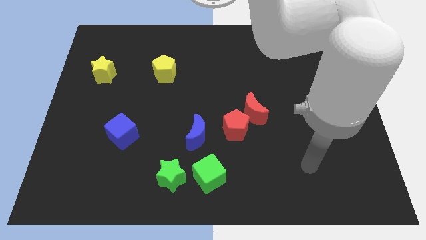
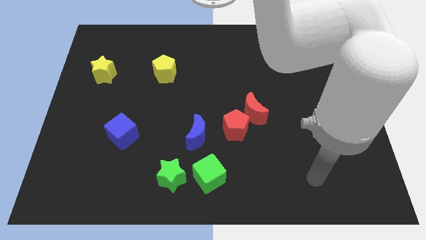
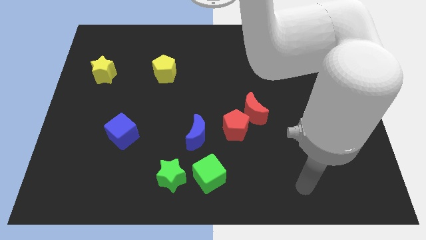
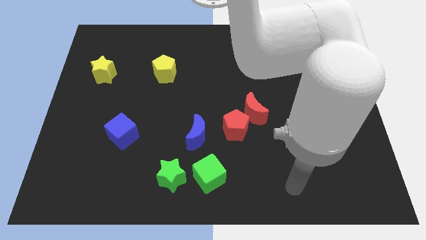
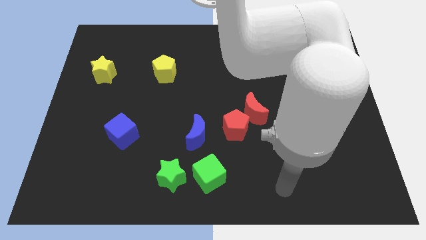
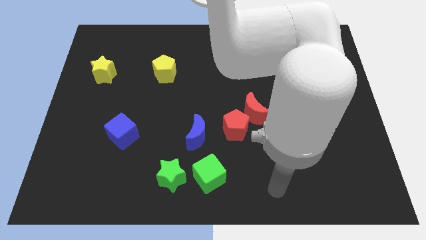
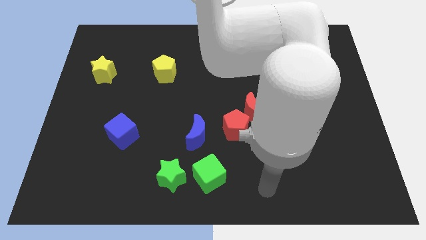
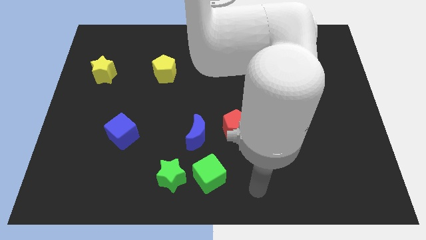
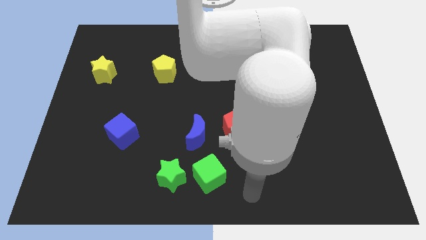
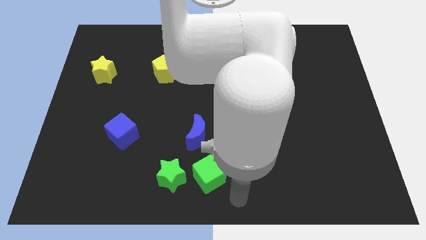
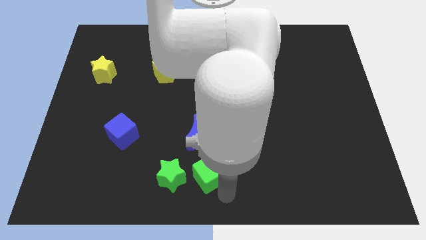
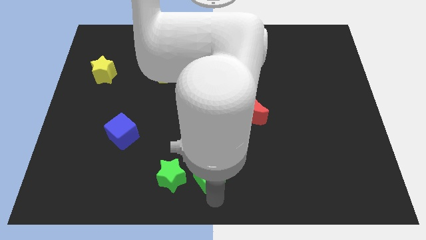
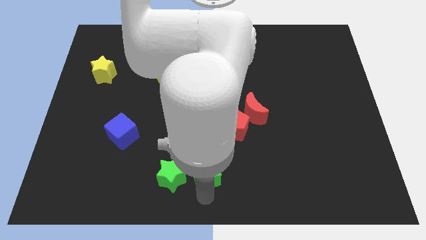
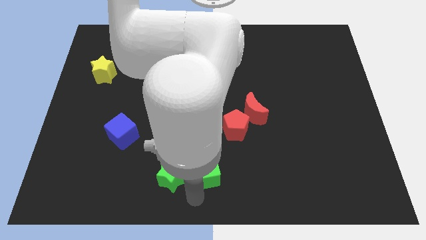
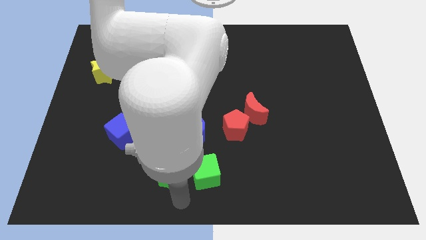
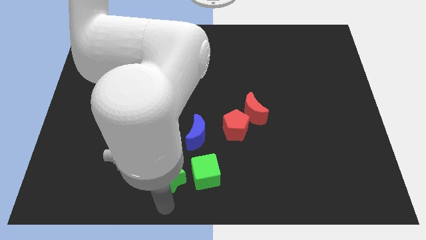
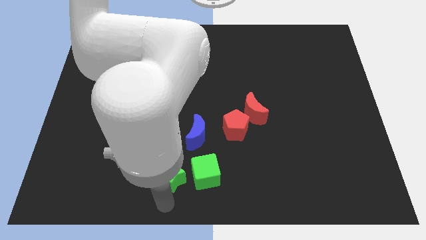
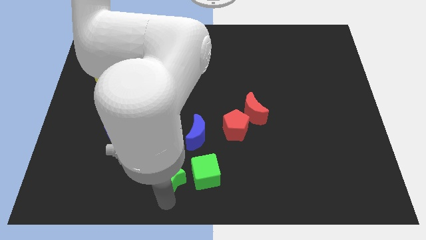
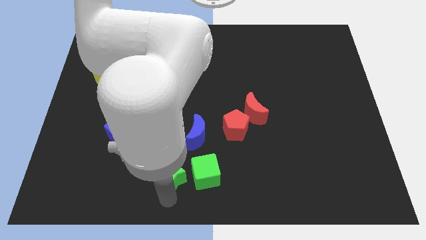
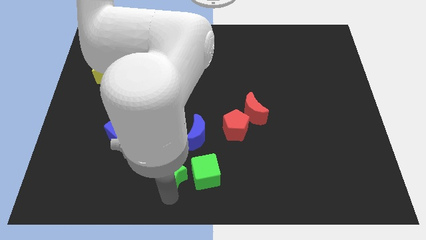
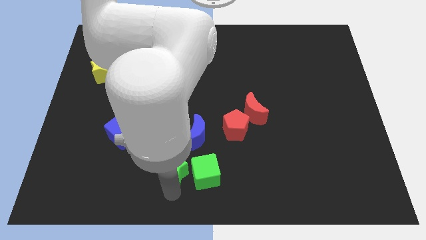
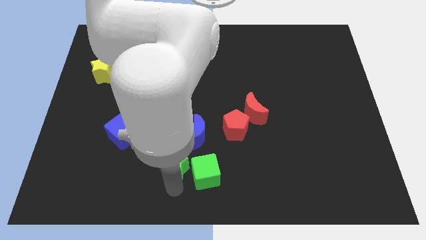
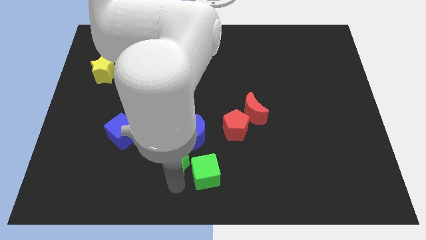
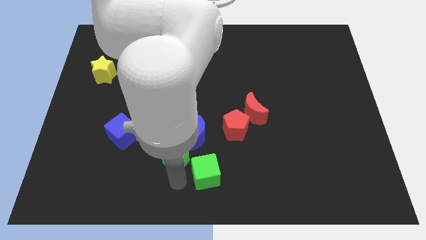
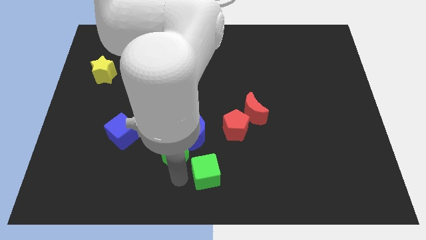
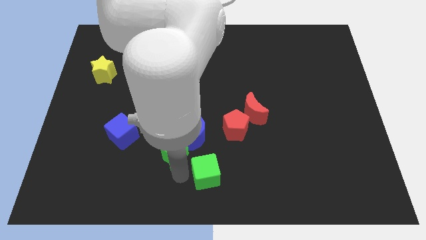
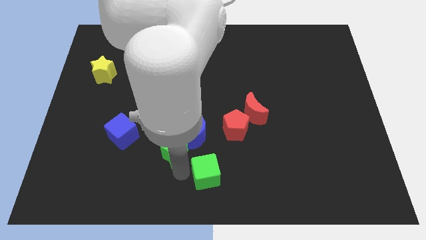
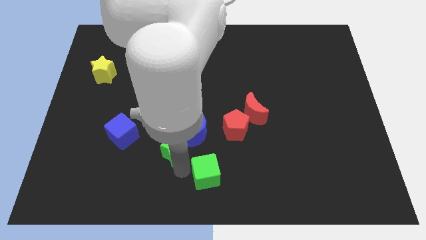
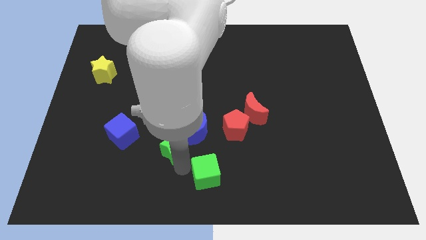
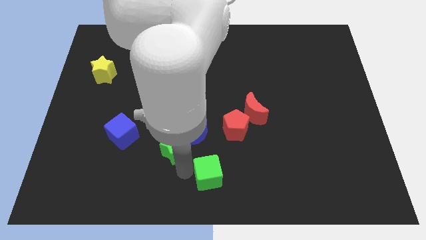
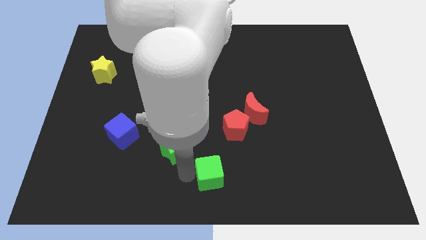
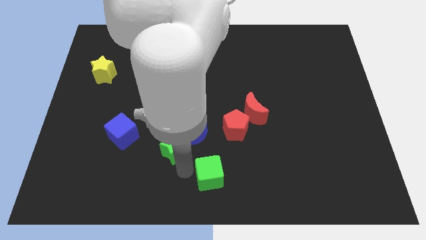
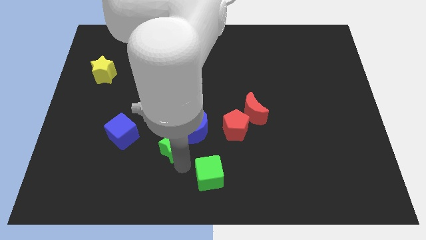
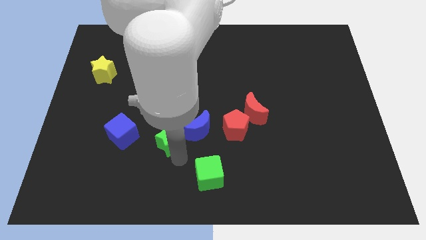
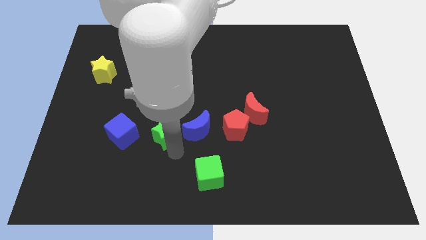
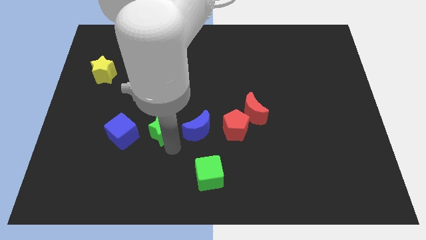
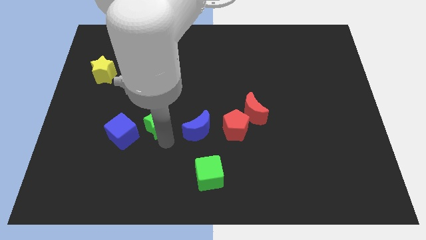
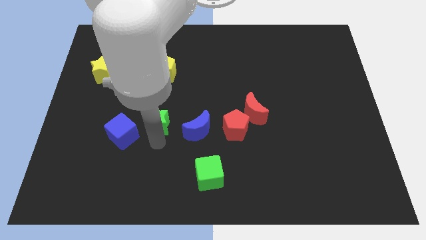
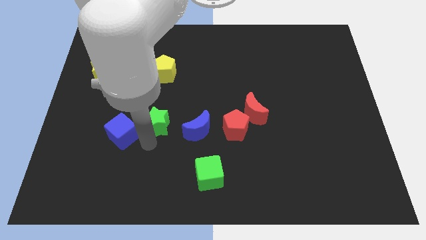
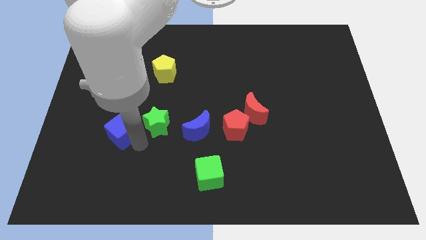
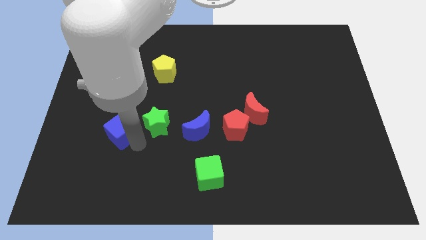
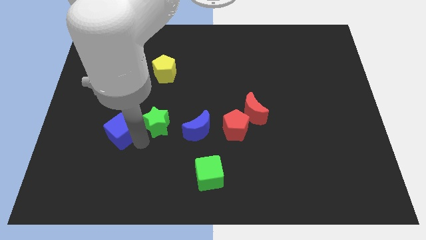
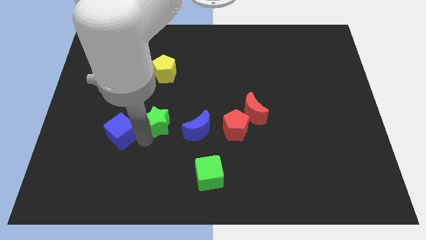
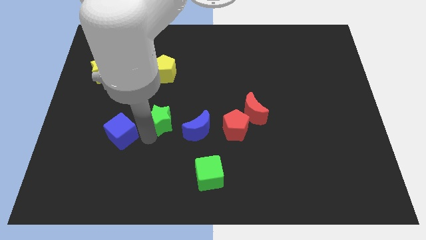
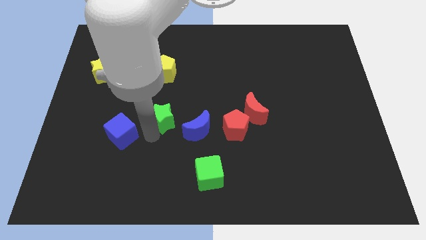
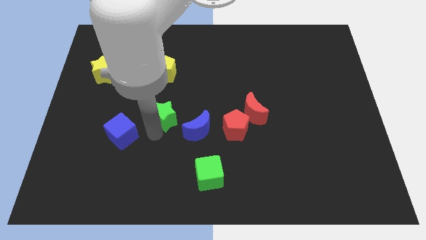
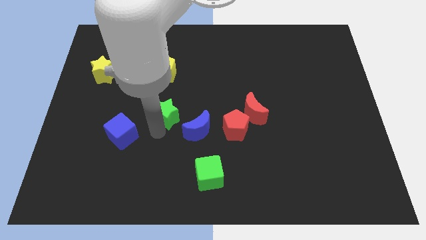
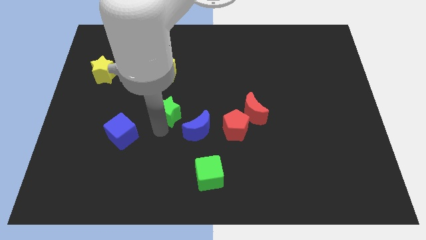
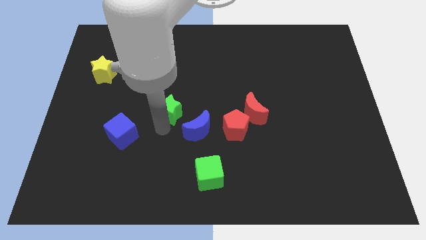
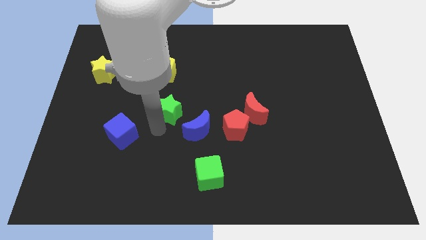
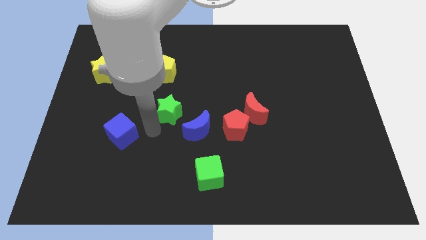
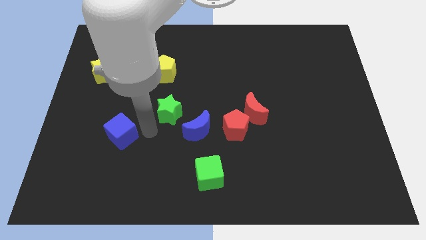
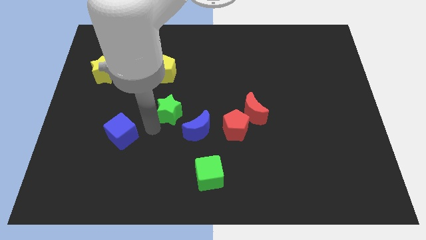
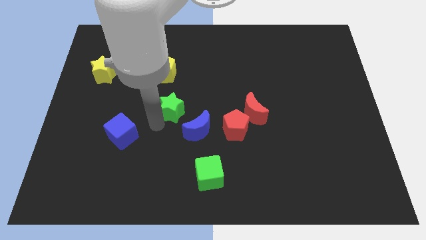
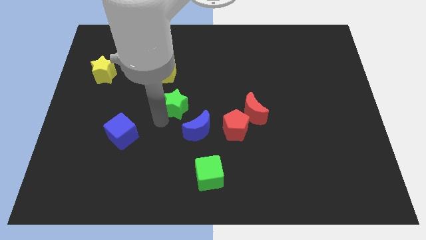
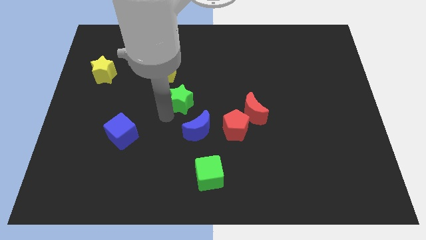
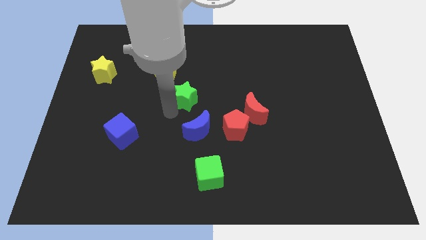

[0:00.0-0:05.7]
move the green star up

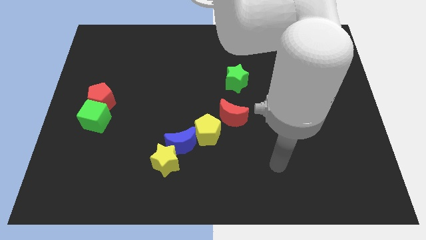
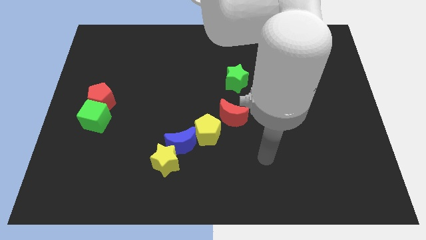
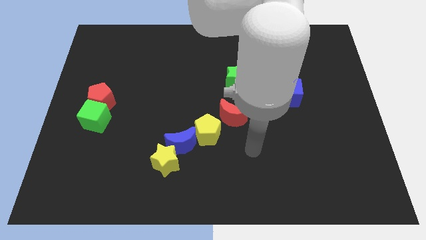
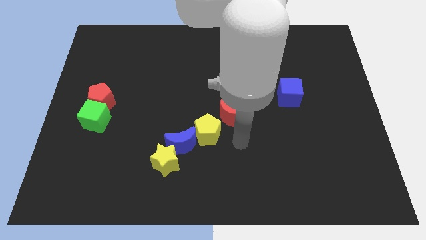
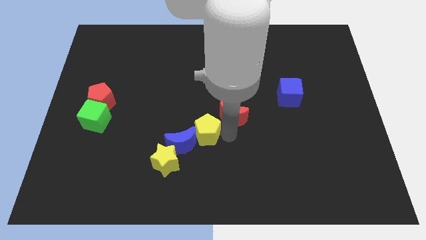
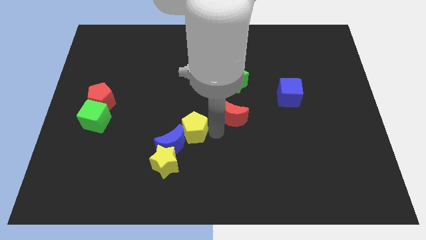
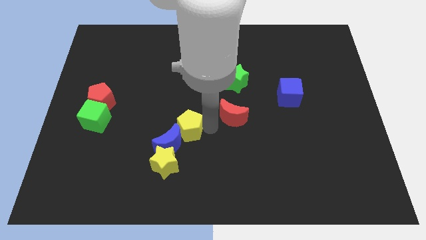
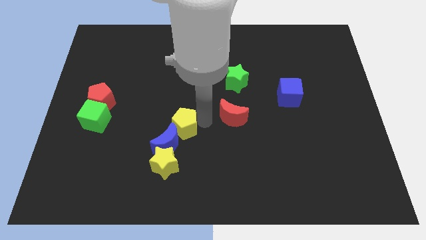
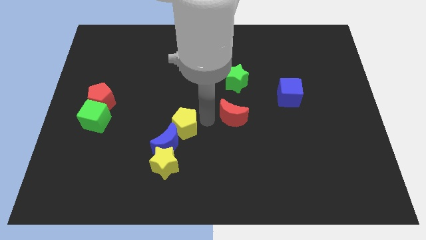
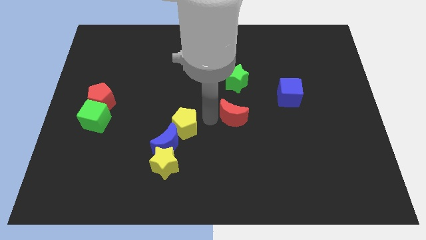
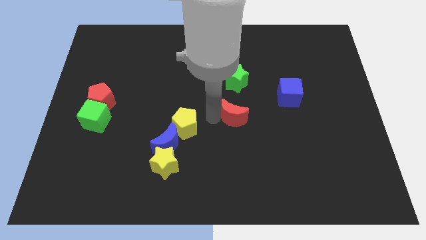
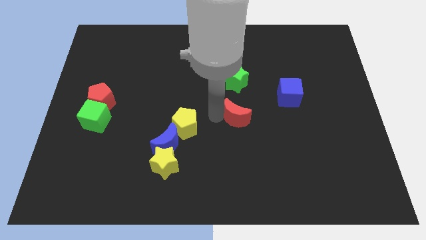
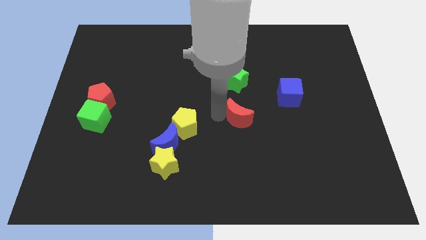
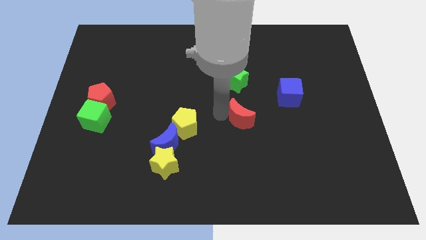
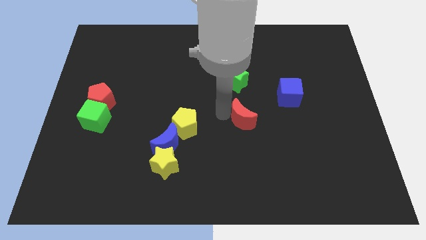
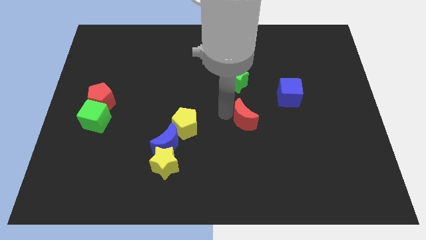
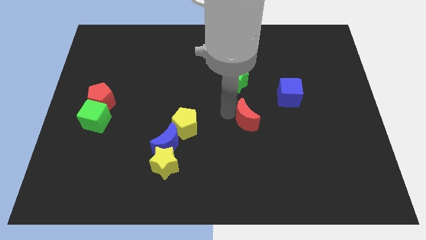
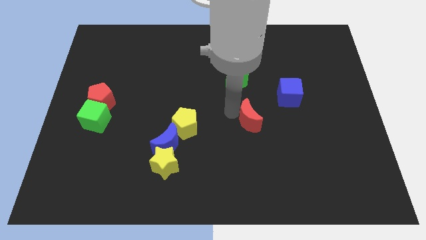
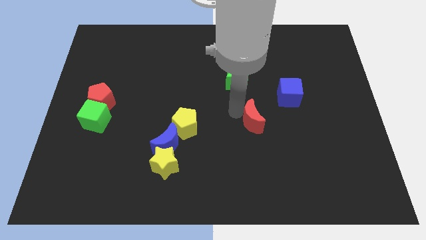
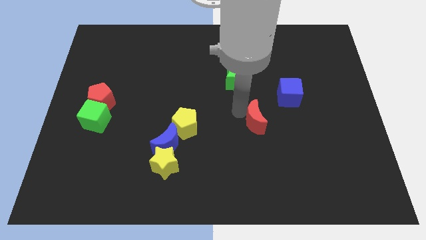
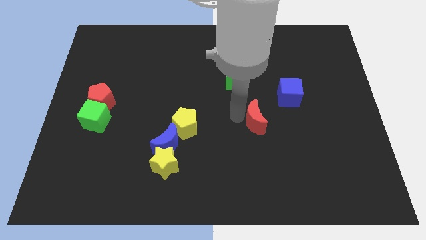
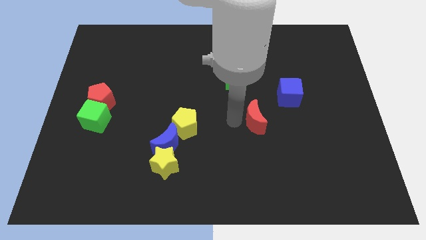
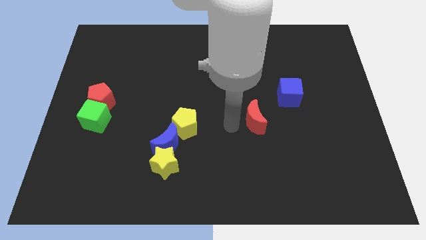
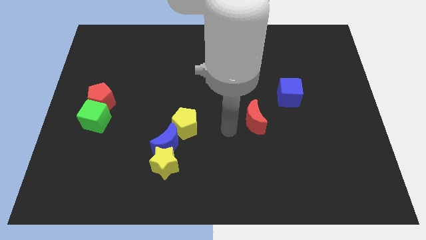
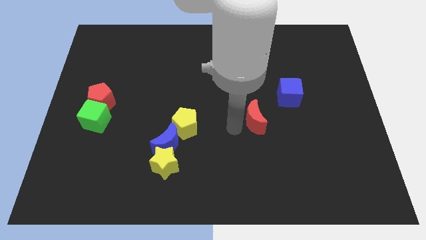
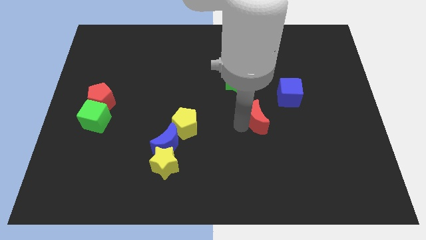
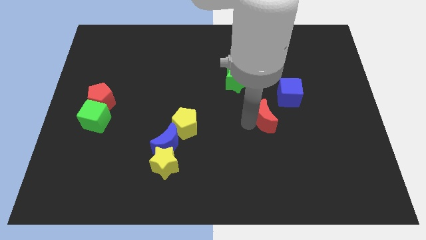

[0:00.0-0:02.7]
push the red moon a little to the right
